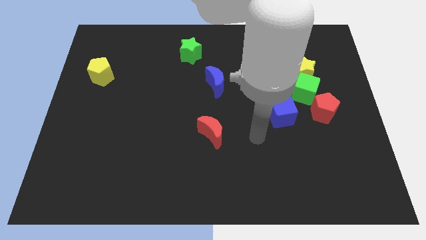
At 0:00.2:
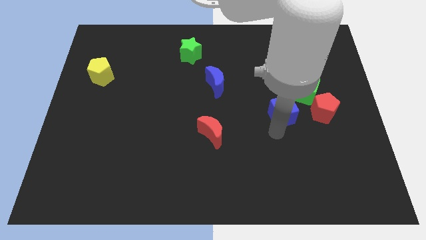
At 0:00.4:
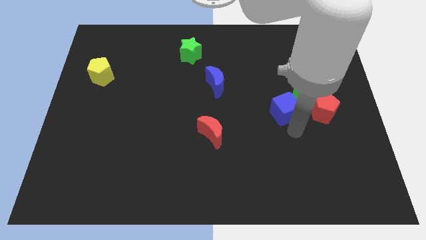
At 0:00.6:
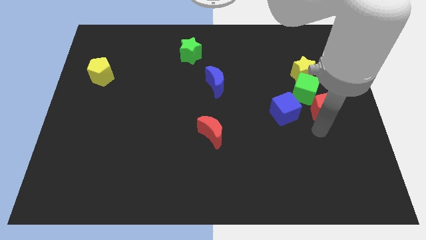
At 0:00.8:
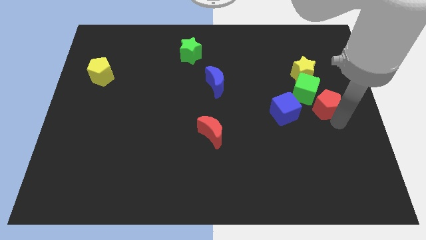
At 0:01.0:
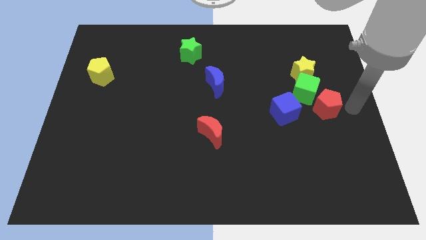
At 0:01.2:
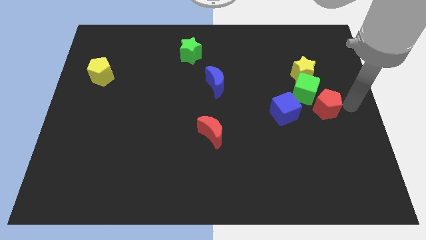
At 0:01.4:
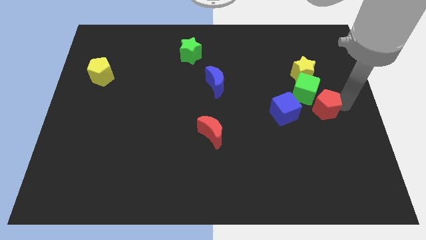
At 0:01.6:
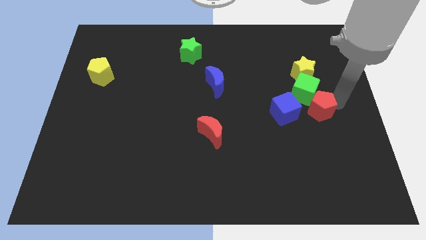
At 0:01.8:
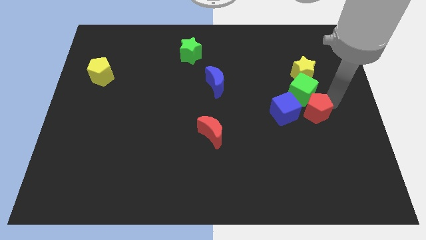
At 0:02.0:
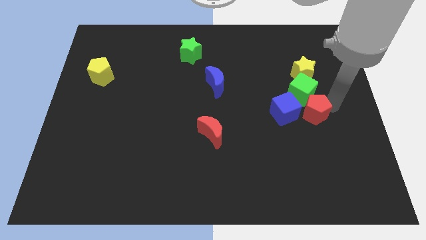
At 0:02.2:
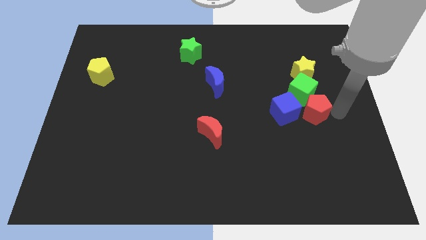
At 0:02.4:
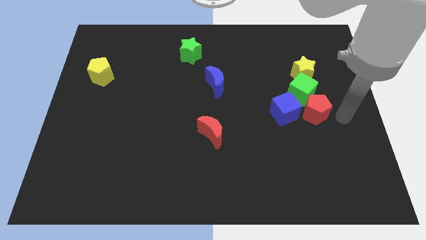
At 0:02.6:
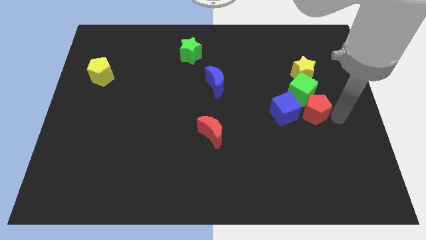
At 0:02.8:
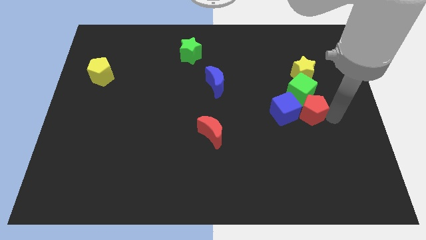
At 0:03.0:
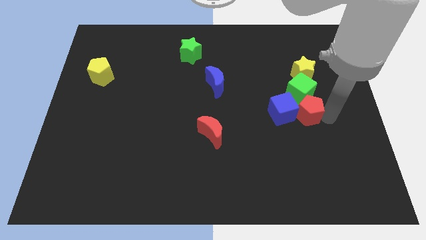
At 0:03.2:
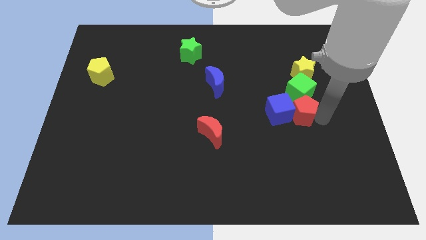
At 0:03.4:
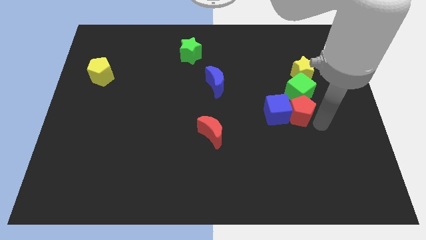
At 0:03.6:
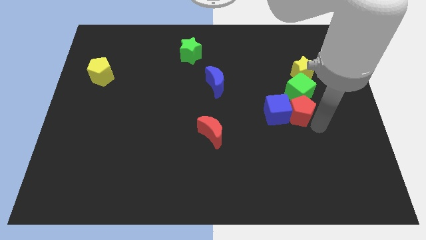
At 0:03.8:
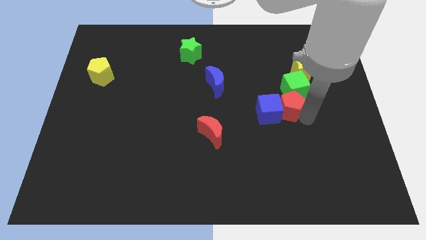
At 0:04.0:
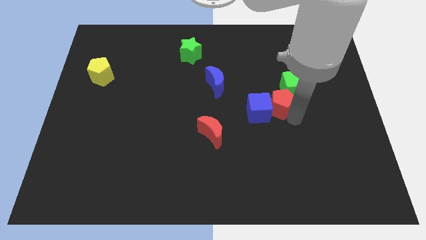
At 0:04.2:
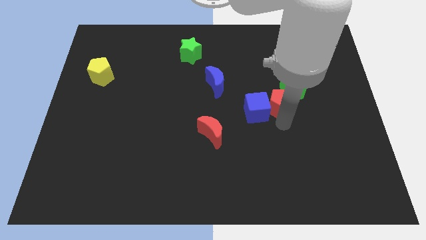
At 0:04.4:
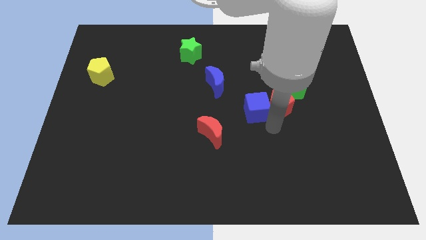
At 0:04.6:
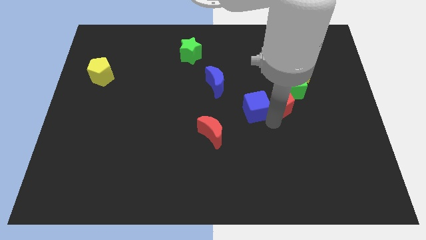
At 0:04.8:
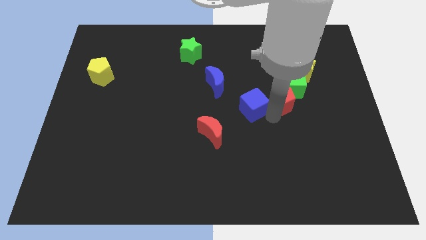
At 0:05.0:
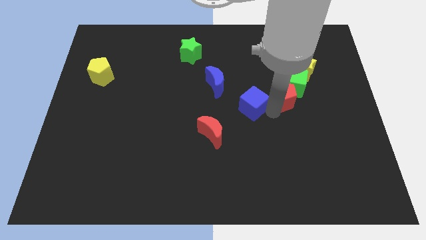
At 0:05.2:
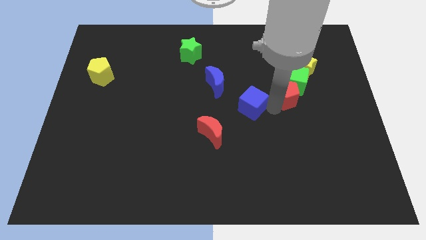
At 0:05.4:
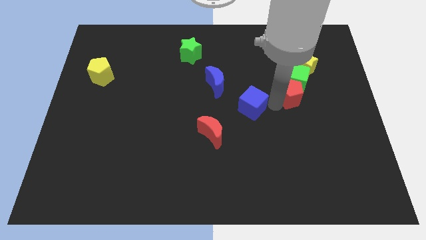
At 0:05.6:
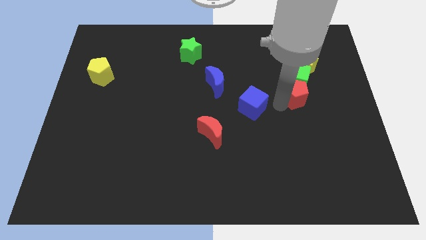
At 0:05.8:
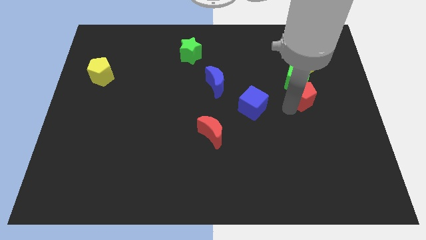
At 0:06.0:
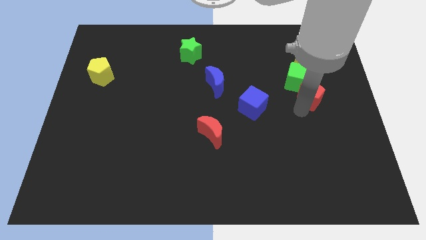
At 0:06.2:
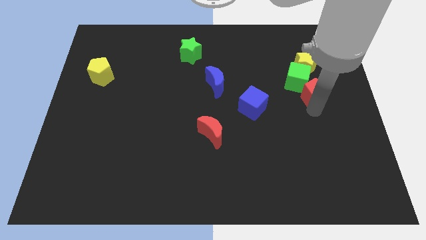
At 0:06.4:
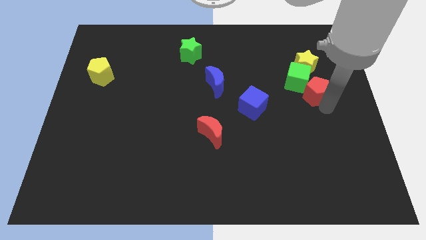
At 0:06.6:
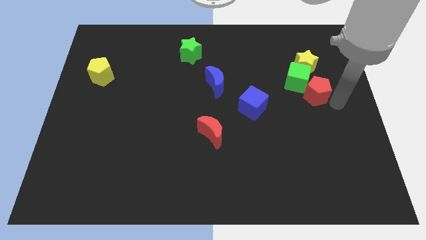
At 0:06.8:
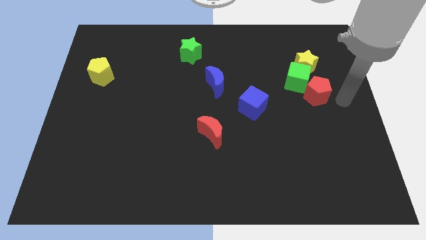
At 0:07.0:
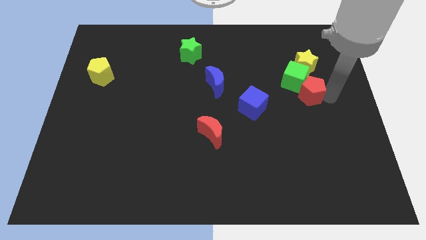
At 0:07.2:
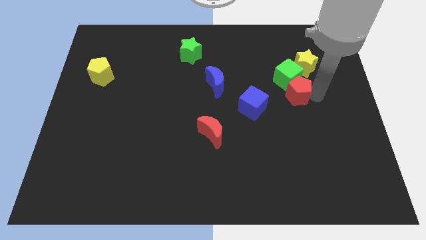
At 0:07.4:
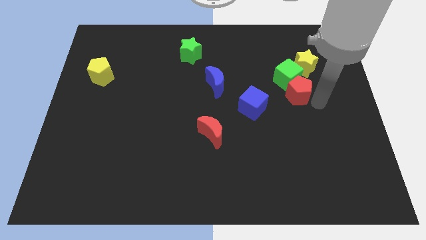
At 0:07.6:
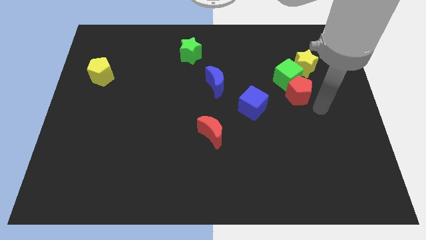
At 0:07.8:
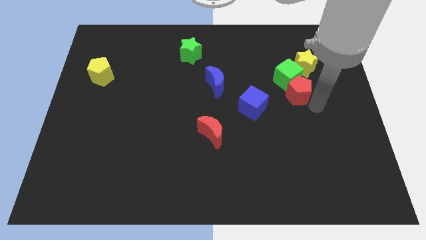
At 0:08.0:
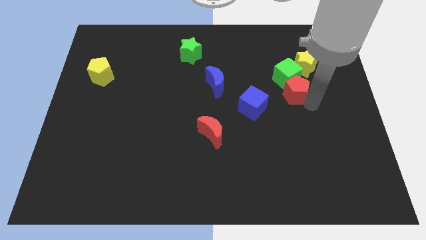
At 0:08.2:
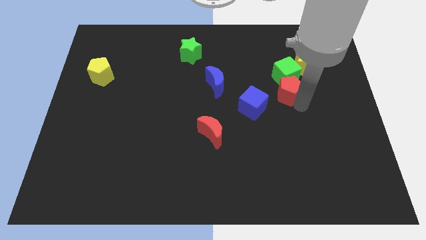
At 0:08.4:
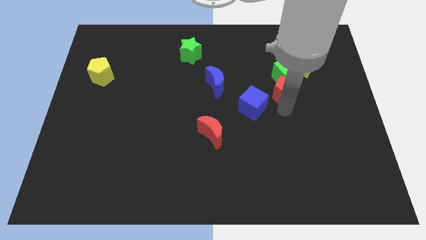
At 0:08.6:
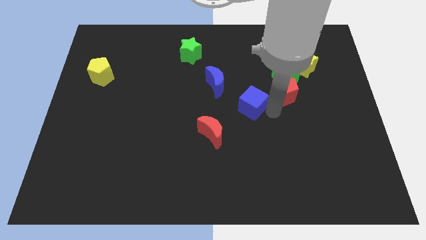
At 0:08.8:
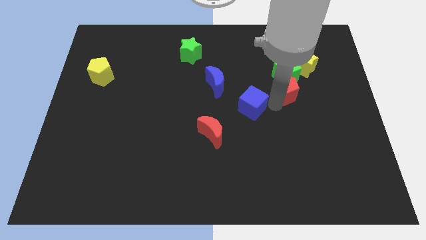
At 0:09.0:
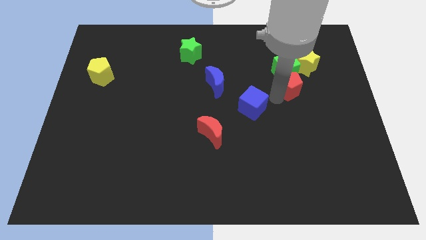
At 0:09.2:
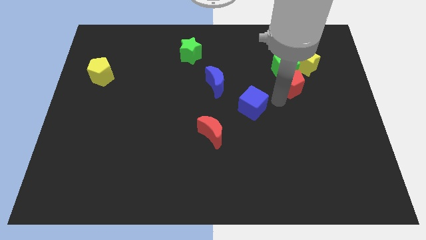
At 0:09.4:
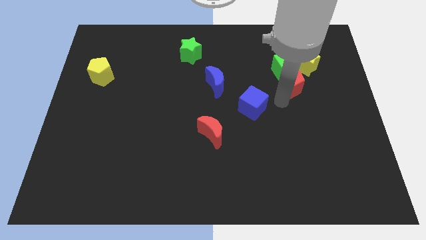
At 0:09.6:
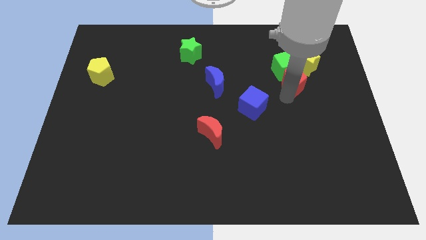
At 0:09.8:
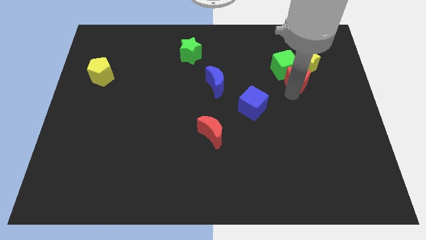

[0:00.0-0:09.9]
put the red pentagon to the yellow star

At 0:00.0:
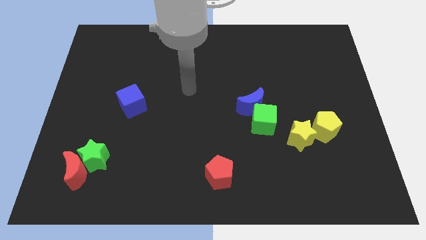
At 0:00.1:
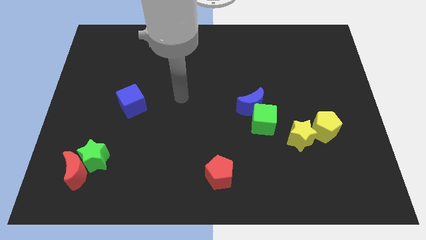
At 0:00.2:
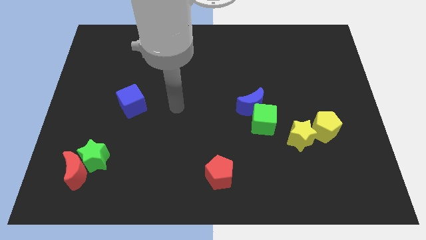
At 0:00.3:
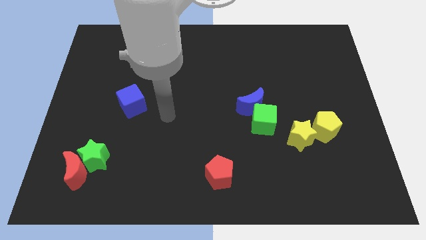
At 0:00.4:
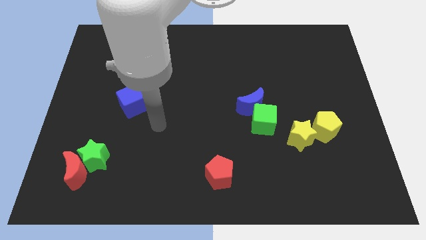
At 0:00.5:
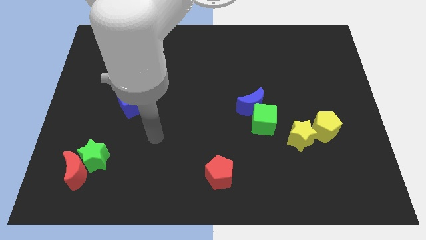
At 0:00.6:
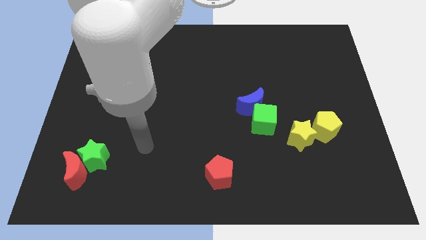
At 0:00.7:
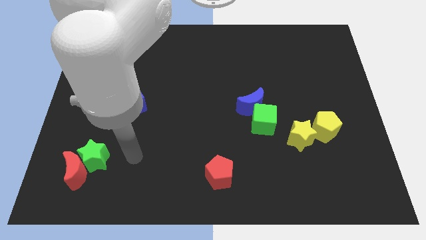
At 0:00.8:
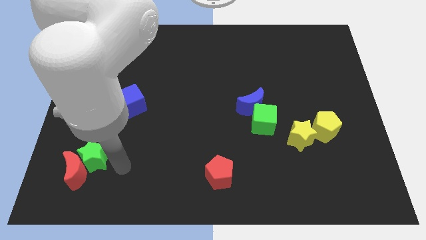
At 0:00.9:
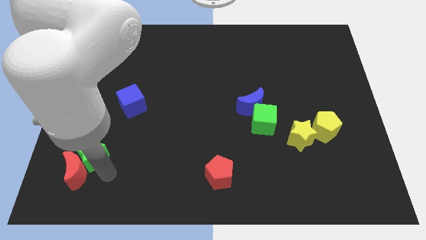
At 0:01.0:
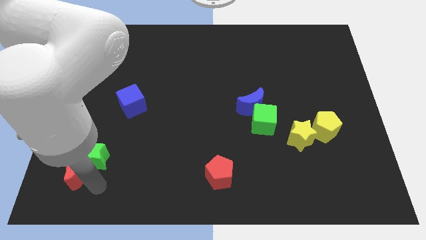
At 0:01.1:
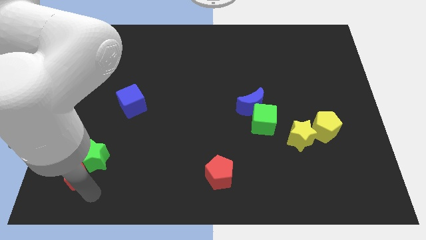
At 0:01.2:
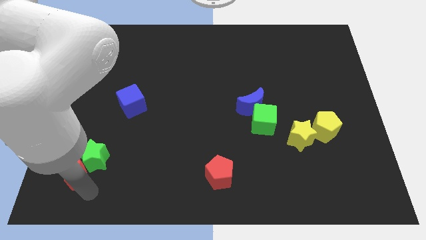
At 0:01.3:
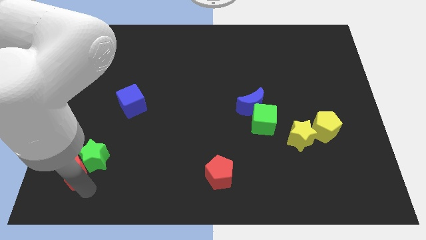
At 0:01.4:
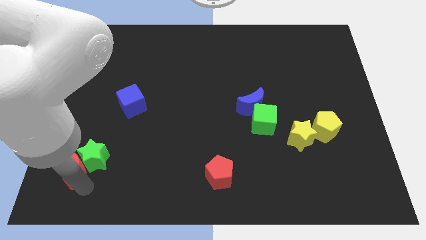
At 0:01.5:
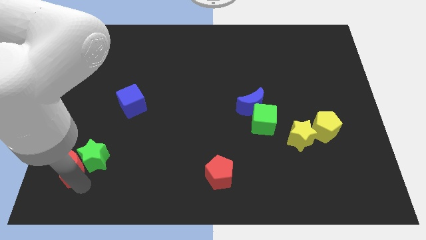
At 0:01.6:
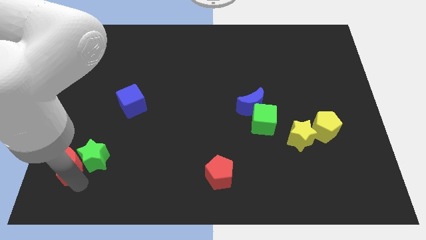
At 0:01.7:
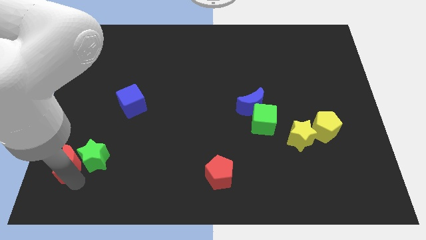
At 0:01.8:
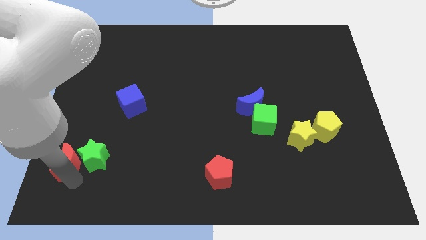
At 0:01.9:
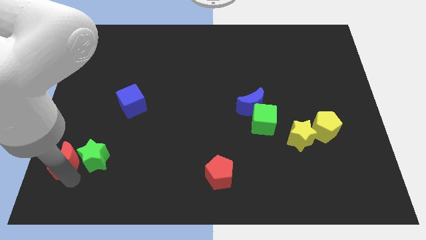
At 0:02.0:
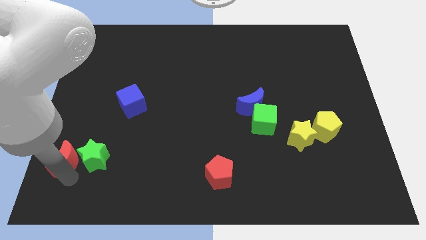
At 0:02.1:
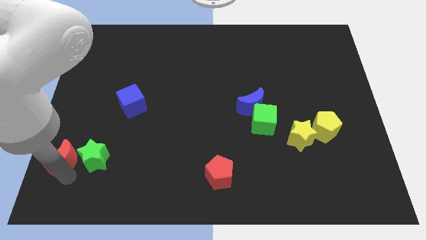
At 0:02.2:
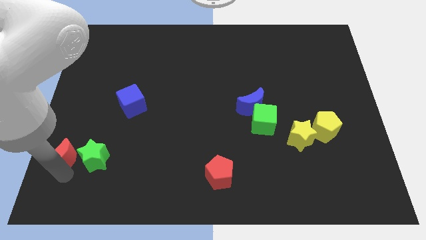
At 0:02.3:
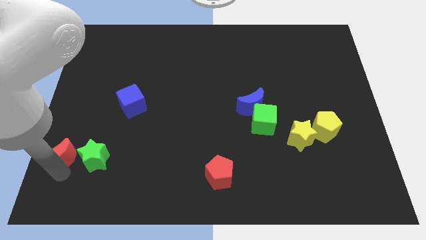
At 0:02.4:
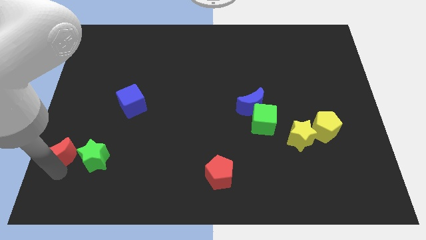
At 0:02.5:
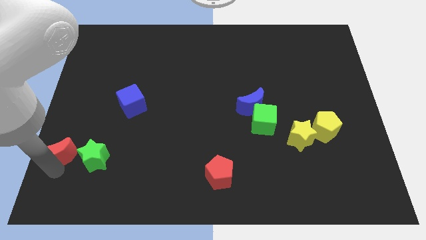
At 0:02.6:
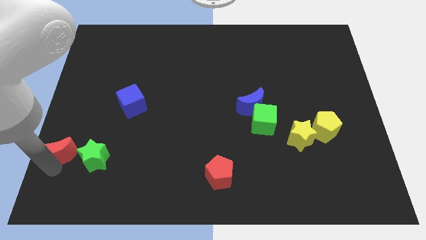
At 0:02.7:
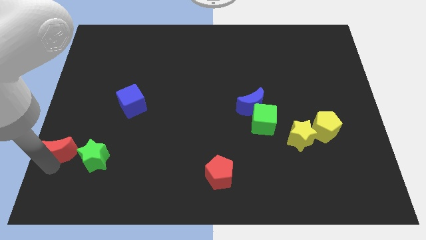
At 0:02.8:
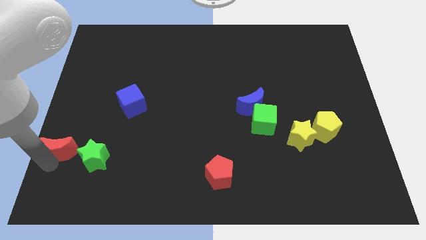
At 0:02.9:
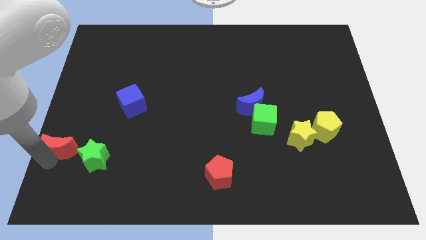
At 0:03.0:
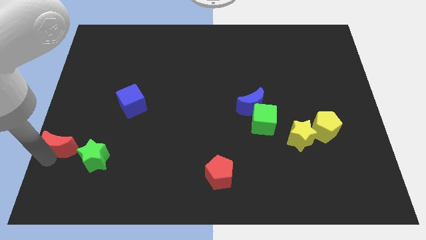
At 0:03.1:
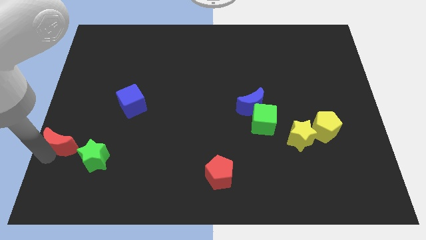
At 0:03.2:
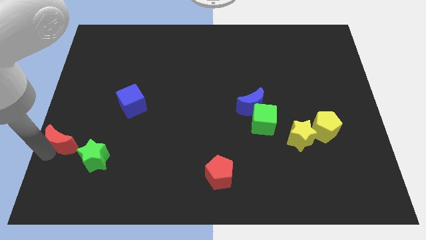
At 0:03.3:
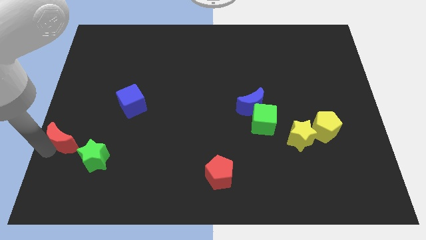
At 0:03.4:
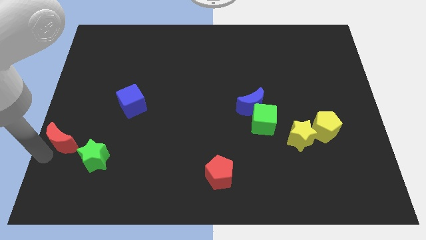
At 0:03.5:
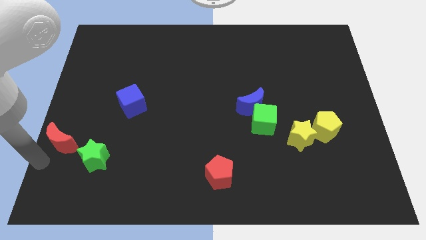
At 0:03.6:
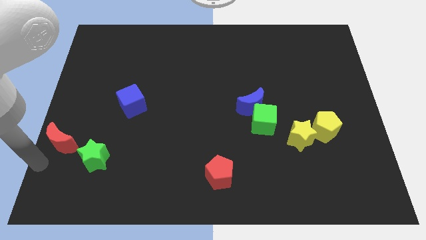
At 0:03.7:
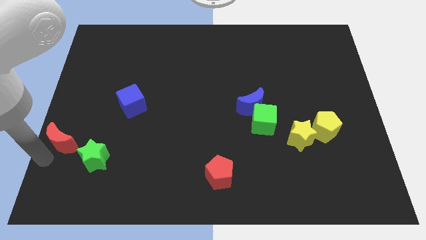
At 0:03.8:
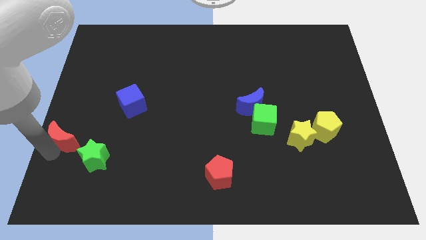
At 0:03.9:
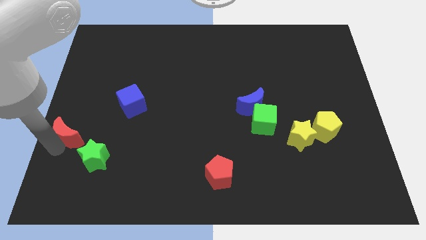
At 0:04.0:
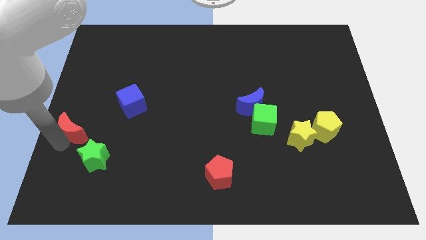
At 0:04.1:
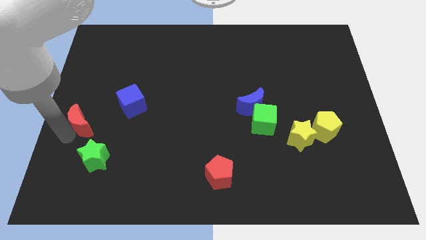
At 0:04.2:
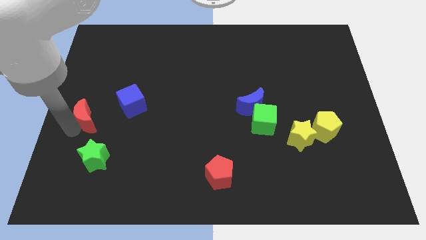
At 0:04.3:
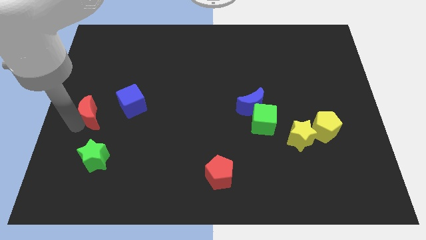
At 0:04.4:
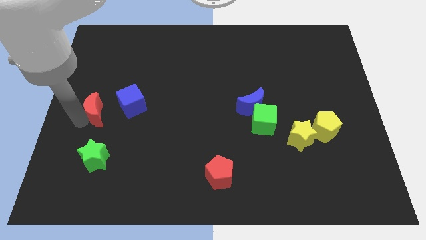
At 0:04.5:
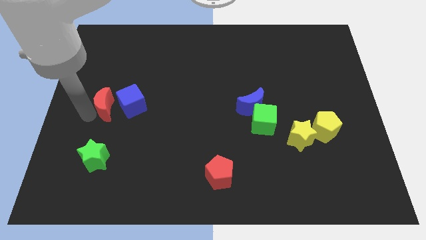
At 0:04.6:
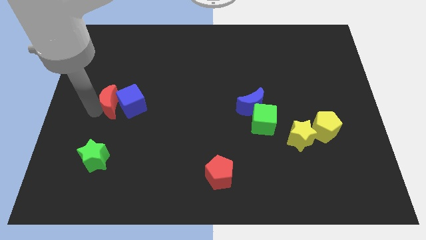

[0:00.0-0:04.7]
move the red moon close to the blue cube
